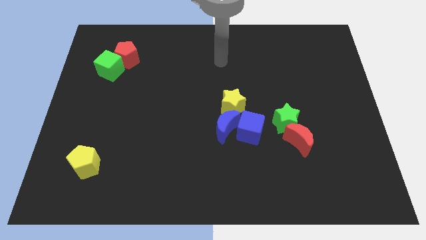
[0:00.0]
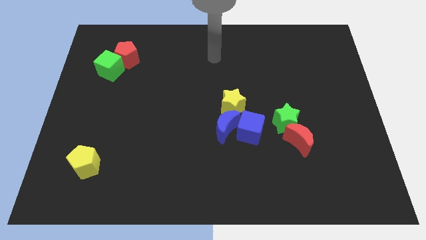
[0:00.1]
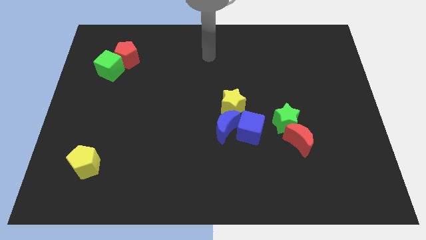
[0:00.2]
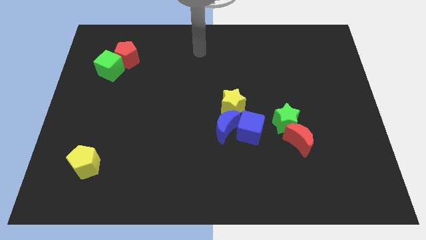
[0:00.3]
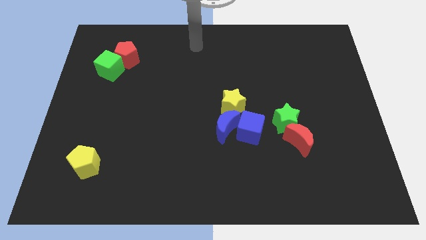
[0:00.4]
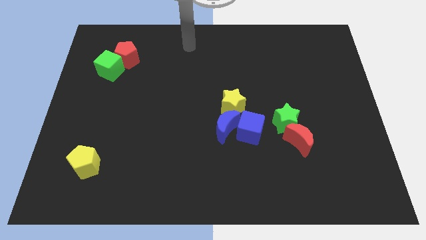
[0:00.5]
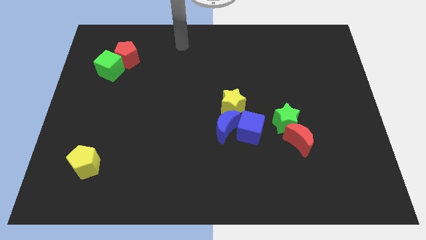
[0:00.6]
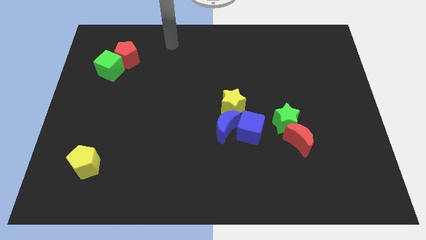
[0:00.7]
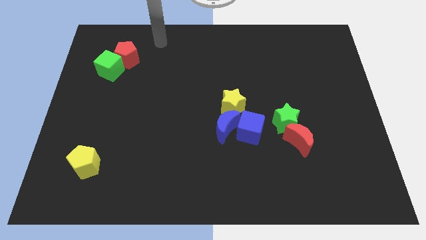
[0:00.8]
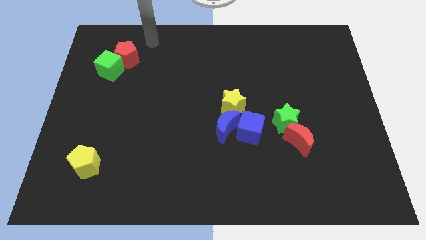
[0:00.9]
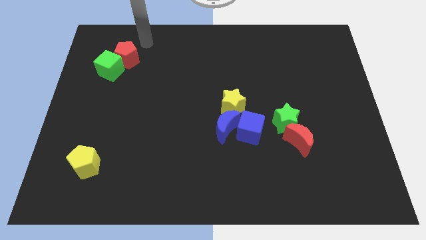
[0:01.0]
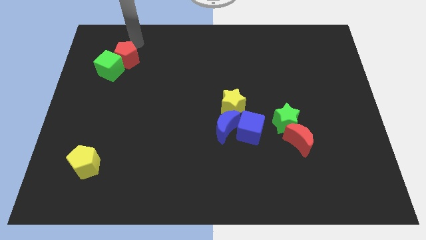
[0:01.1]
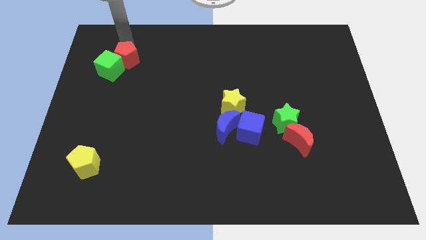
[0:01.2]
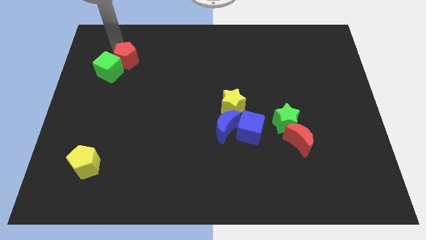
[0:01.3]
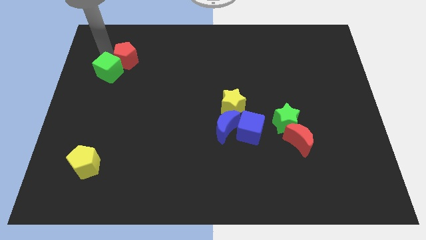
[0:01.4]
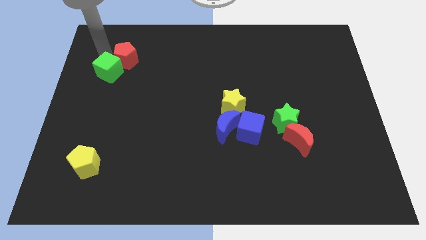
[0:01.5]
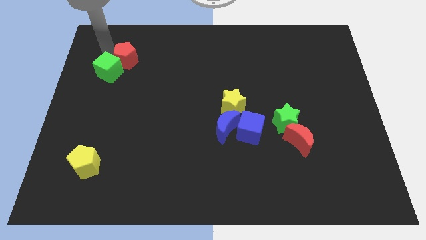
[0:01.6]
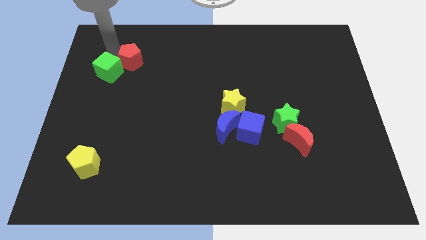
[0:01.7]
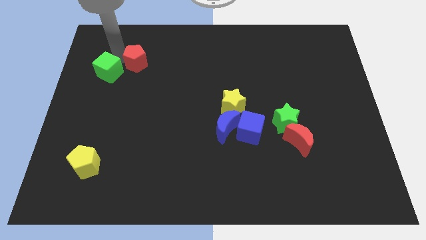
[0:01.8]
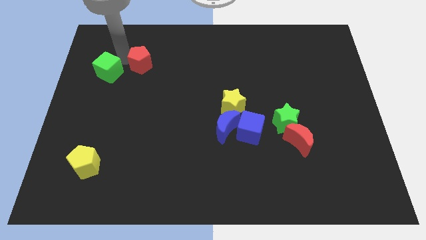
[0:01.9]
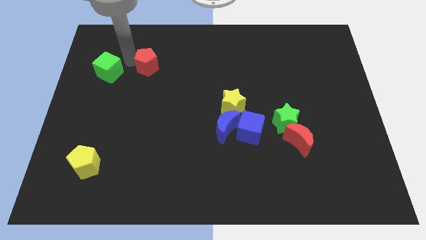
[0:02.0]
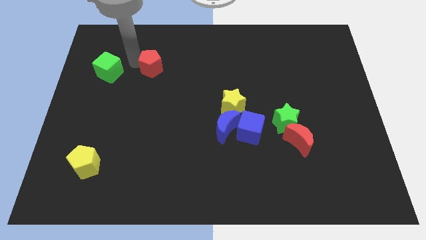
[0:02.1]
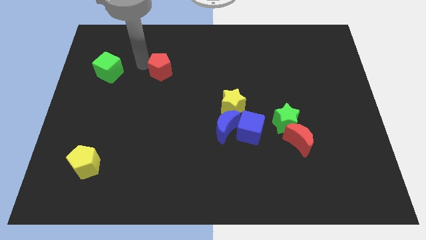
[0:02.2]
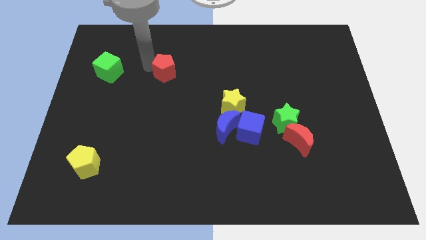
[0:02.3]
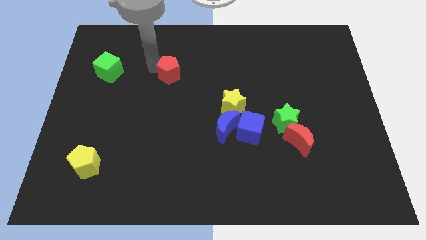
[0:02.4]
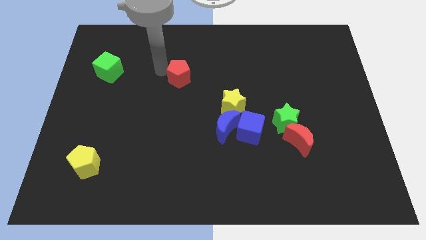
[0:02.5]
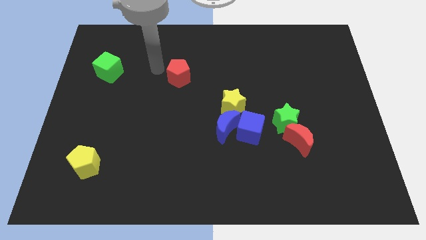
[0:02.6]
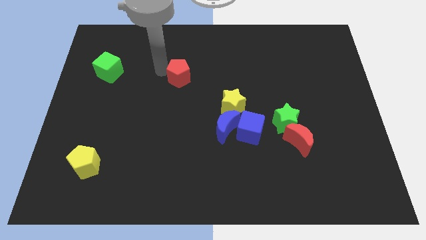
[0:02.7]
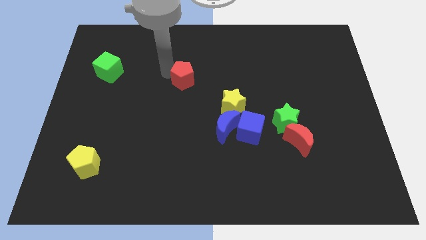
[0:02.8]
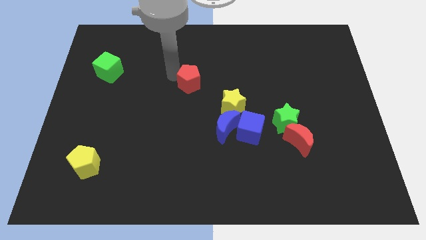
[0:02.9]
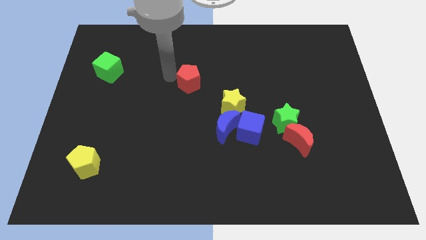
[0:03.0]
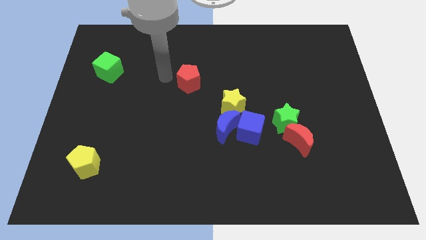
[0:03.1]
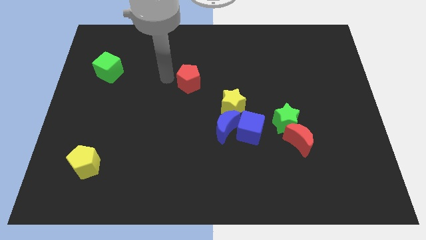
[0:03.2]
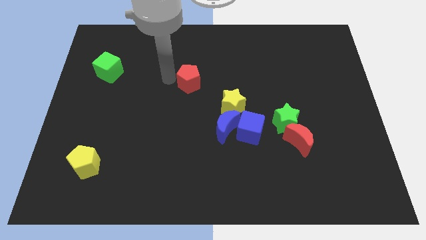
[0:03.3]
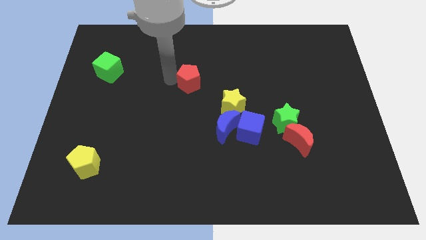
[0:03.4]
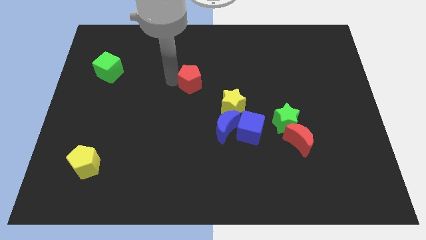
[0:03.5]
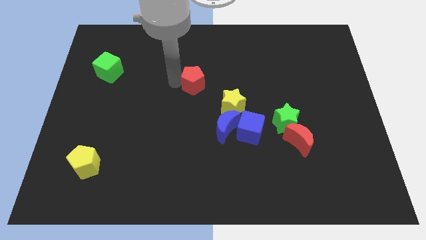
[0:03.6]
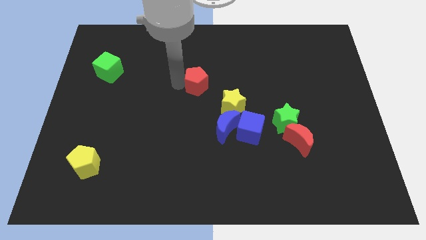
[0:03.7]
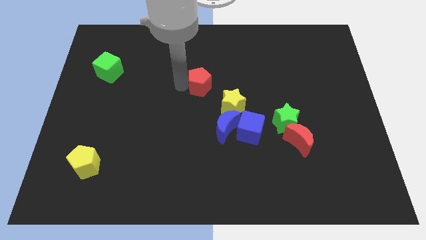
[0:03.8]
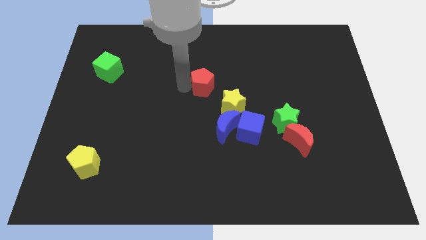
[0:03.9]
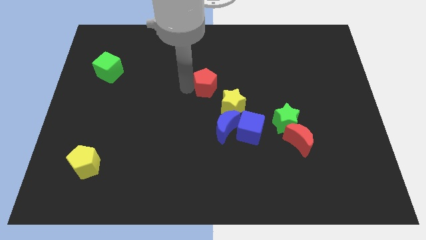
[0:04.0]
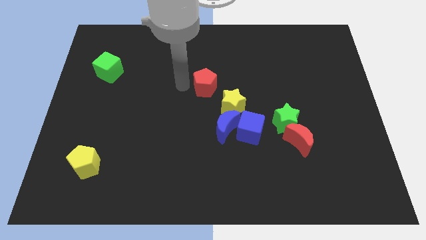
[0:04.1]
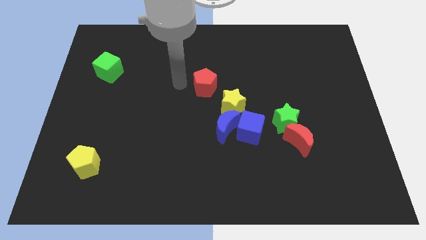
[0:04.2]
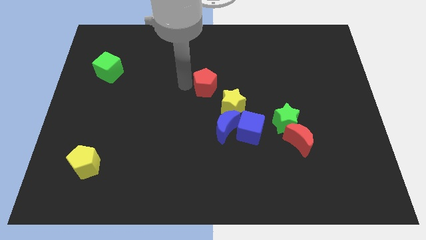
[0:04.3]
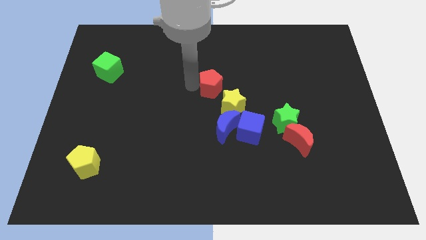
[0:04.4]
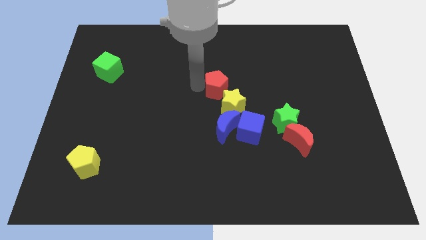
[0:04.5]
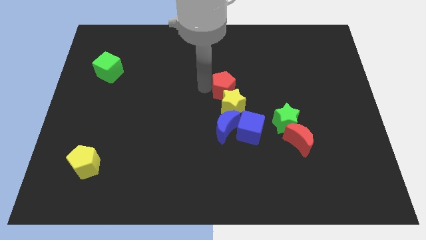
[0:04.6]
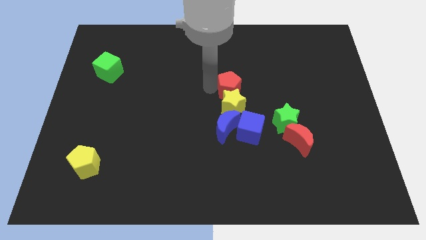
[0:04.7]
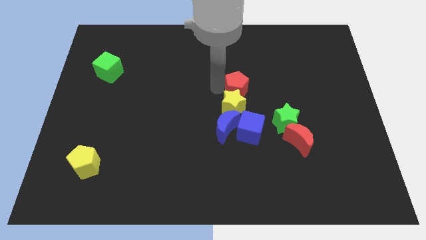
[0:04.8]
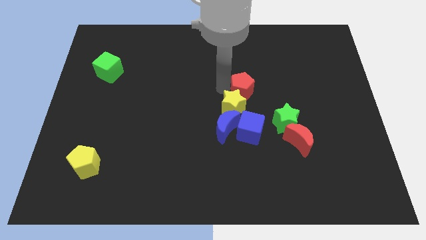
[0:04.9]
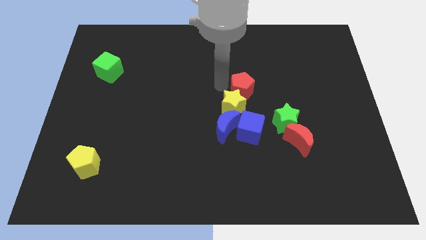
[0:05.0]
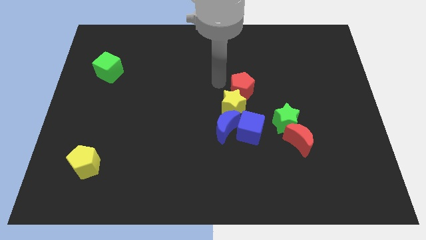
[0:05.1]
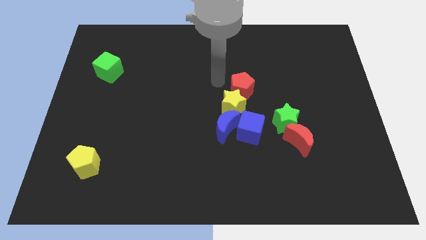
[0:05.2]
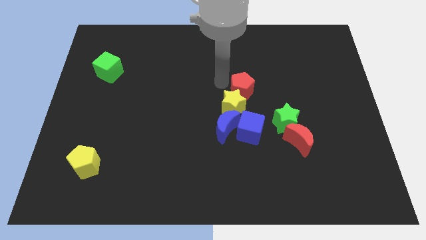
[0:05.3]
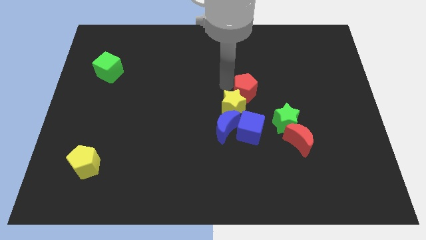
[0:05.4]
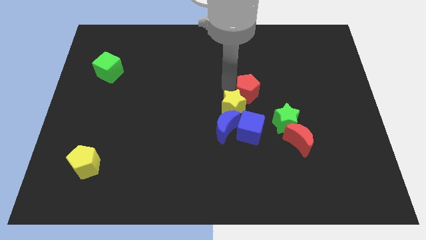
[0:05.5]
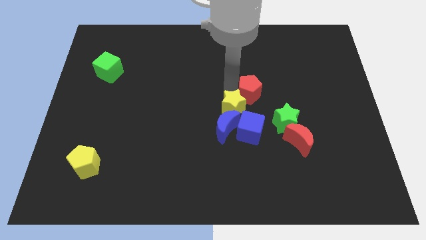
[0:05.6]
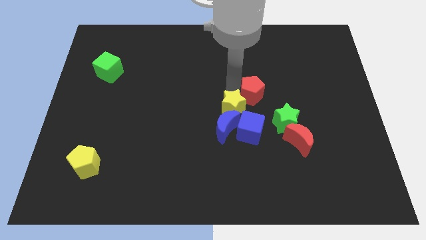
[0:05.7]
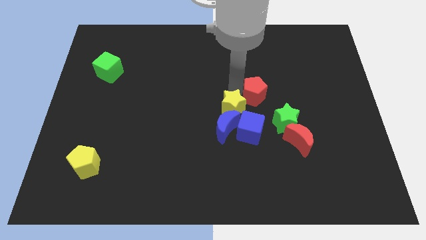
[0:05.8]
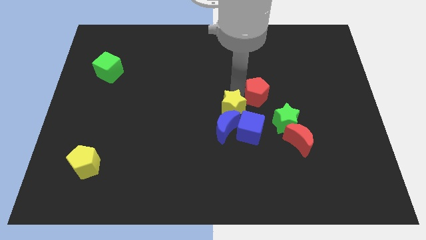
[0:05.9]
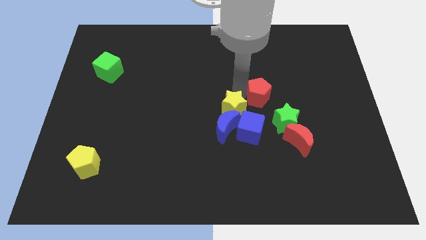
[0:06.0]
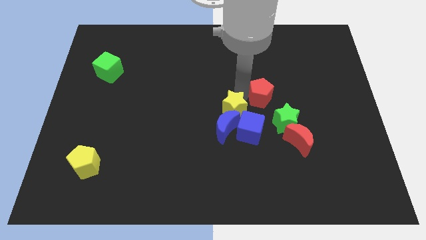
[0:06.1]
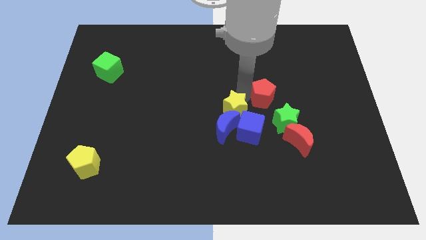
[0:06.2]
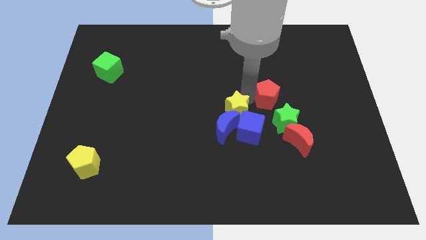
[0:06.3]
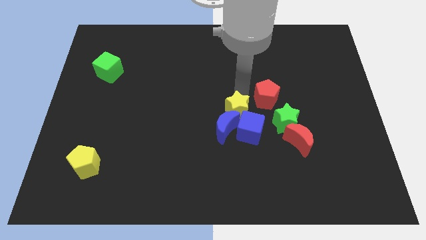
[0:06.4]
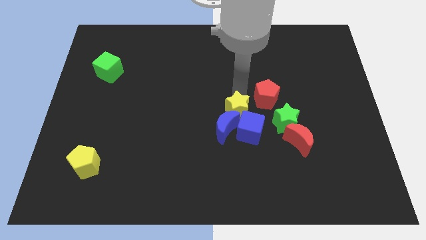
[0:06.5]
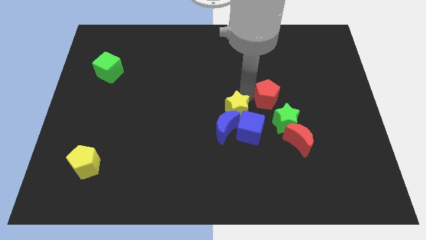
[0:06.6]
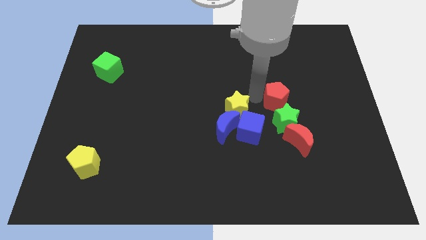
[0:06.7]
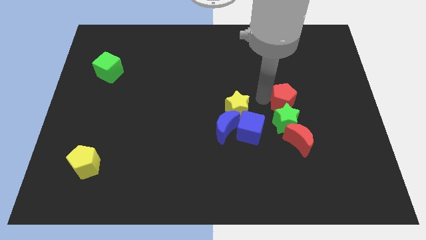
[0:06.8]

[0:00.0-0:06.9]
put the red pentagon to the top right of the green star
